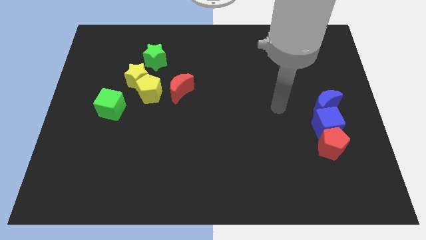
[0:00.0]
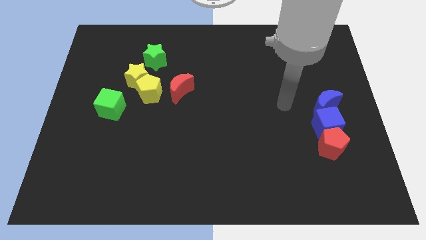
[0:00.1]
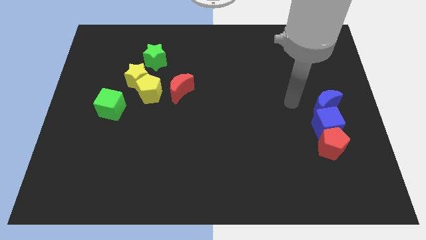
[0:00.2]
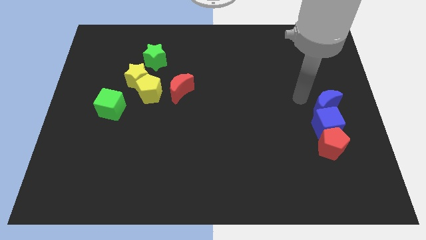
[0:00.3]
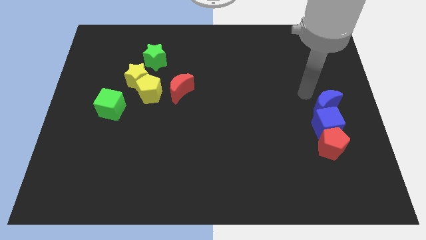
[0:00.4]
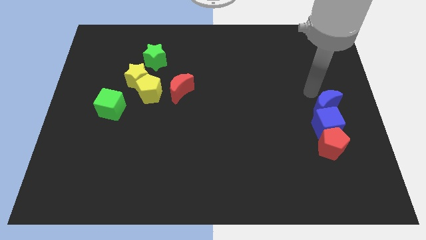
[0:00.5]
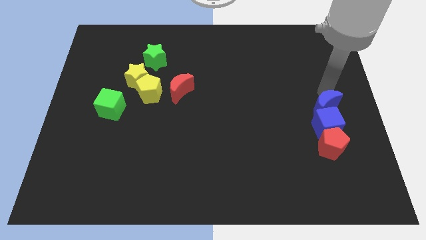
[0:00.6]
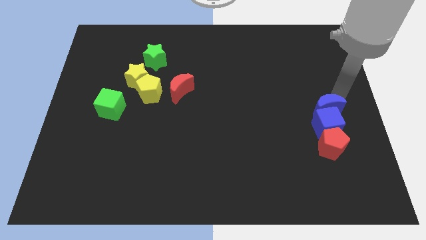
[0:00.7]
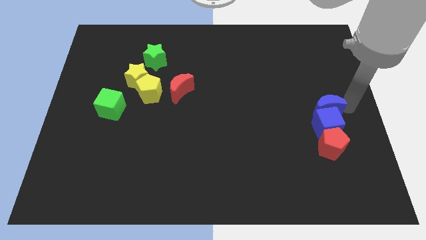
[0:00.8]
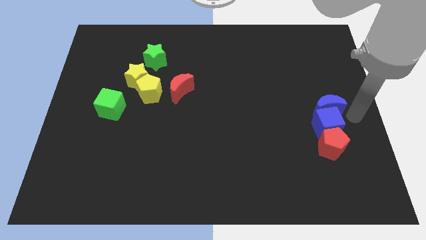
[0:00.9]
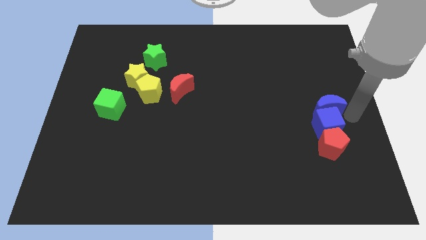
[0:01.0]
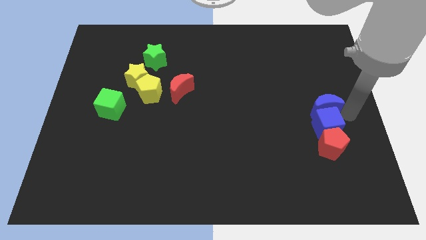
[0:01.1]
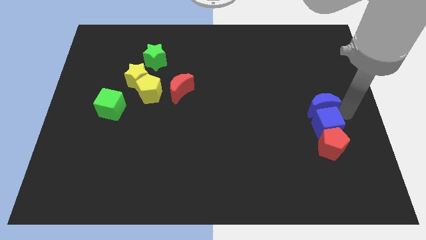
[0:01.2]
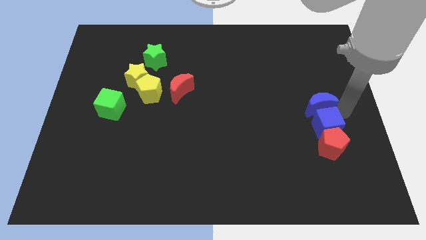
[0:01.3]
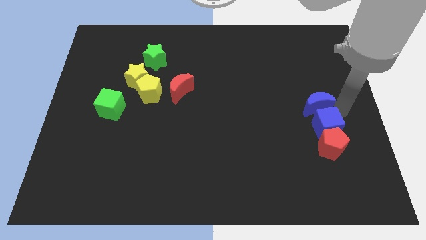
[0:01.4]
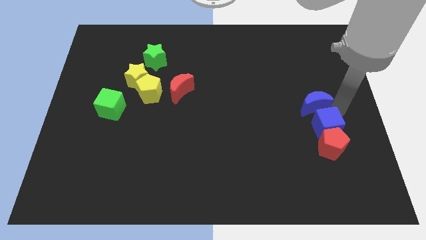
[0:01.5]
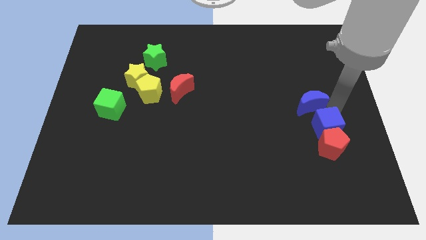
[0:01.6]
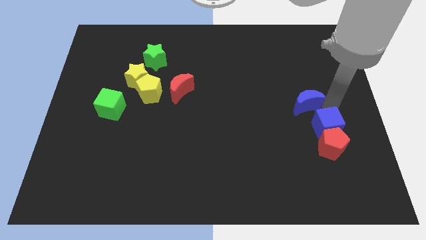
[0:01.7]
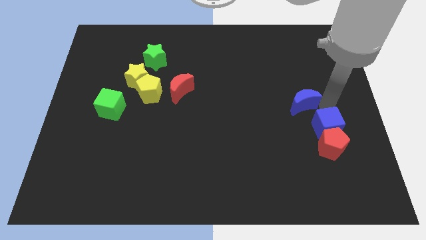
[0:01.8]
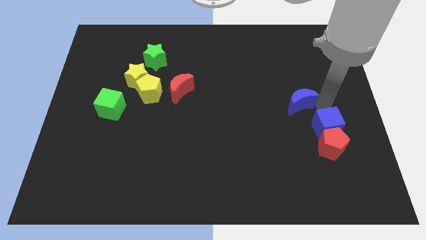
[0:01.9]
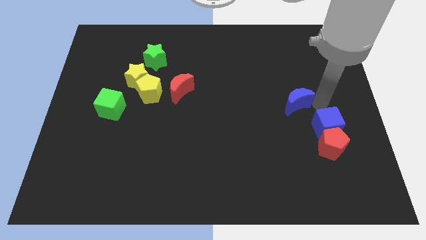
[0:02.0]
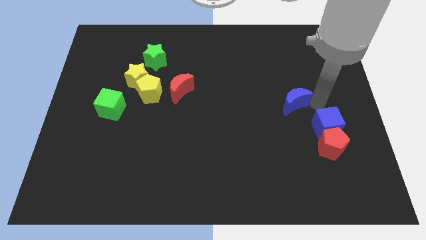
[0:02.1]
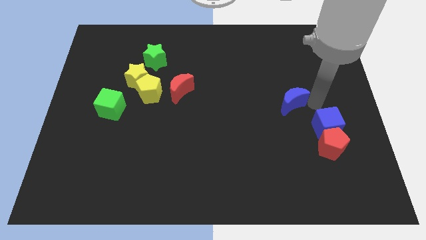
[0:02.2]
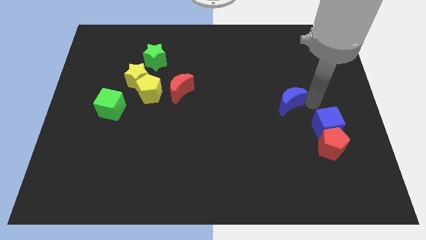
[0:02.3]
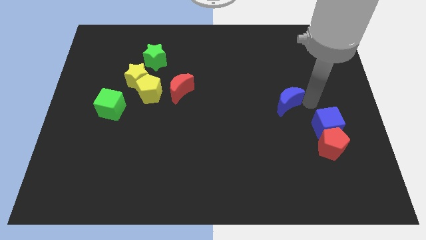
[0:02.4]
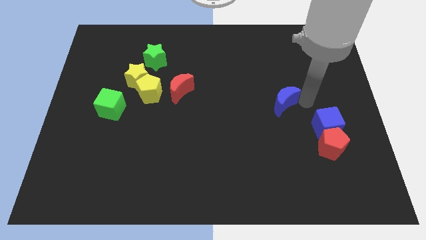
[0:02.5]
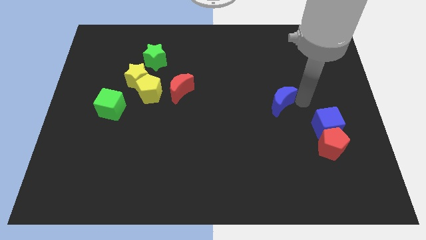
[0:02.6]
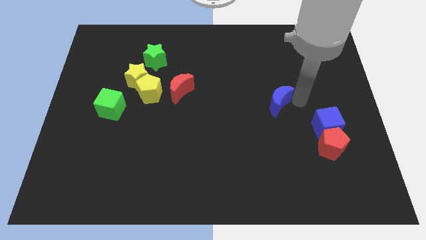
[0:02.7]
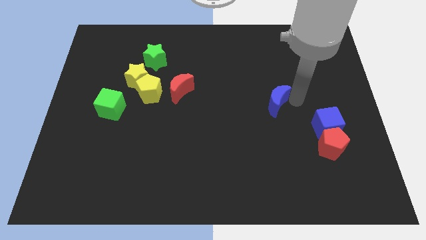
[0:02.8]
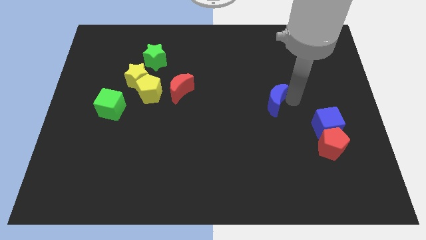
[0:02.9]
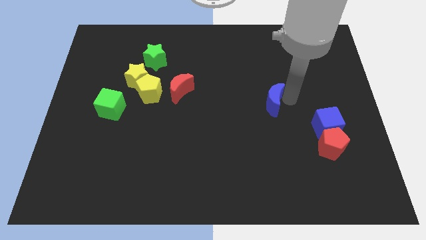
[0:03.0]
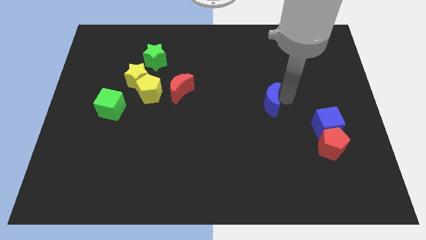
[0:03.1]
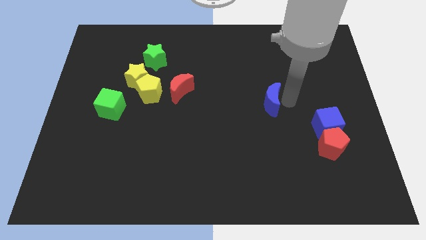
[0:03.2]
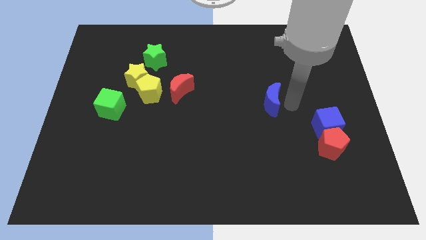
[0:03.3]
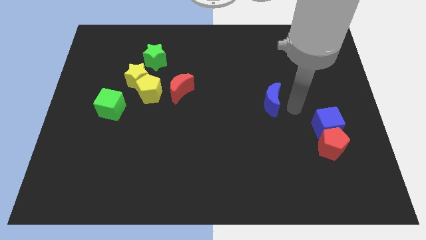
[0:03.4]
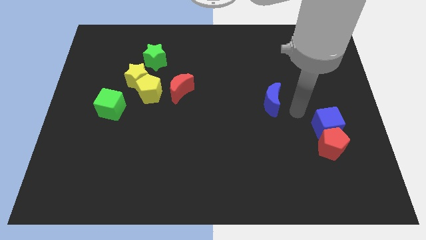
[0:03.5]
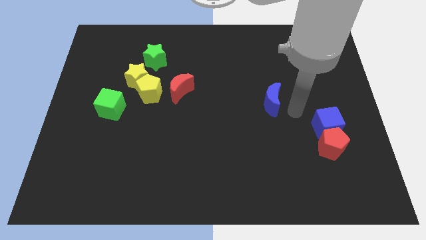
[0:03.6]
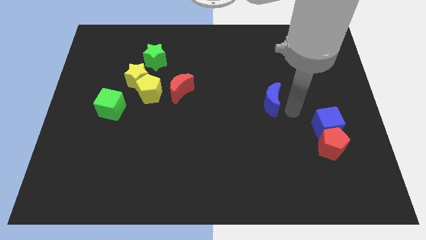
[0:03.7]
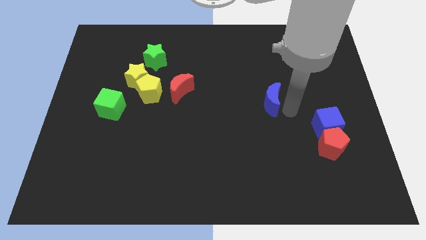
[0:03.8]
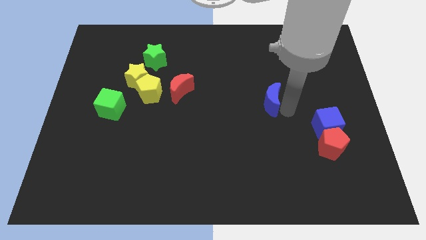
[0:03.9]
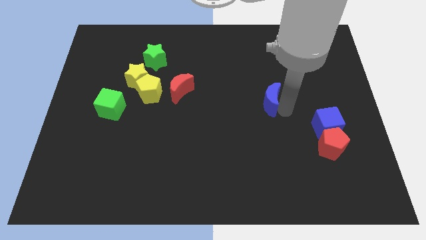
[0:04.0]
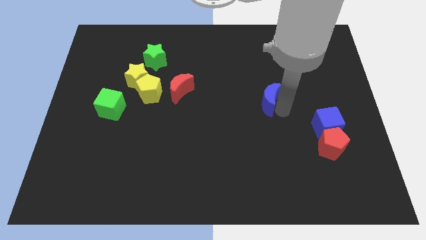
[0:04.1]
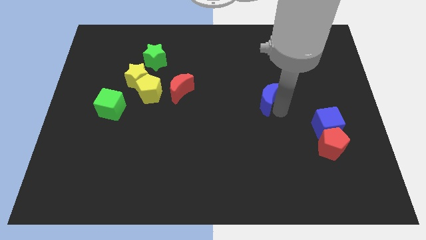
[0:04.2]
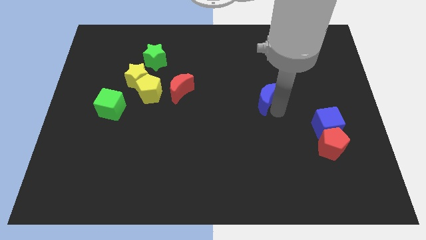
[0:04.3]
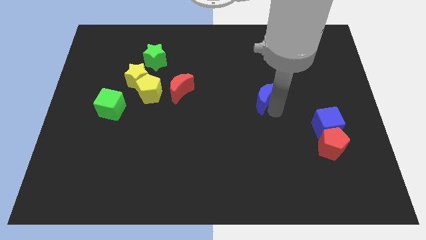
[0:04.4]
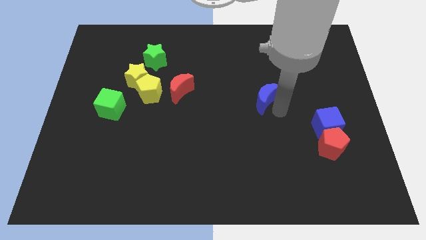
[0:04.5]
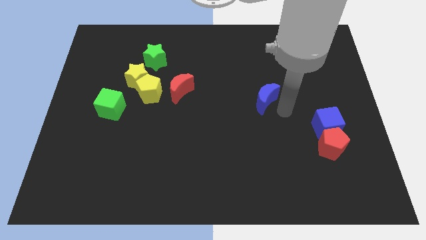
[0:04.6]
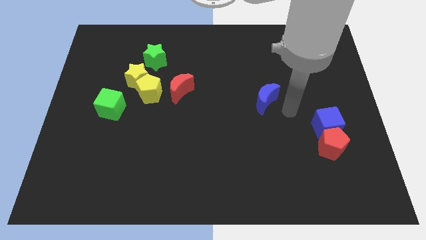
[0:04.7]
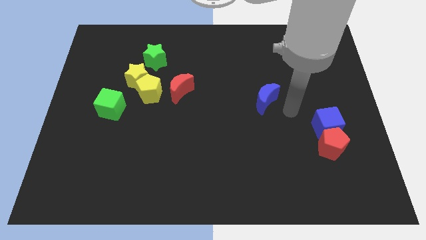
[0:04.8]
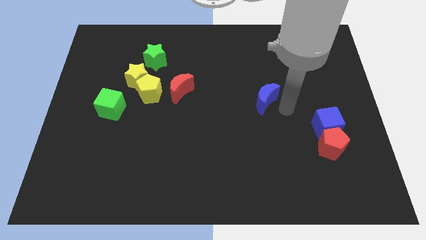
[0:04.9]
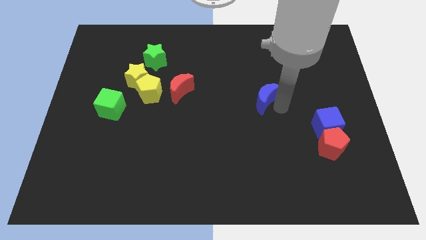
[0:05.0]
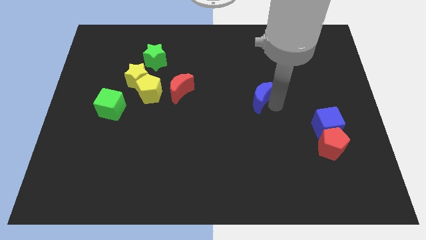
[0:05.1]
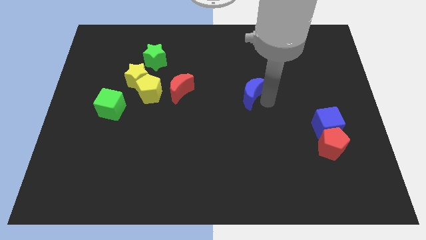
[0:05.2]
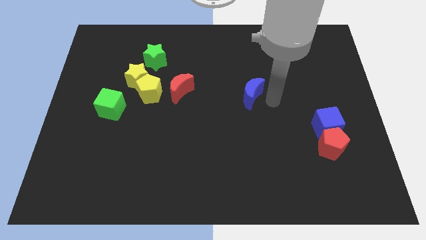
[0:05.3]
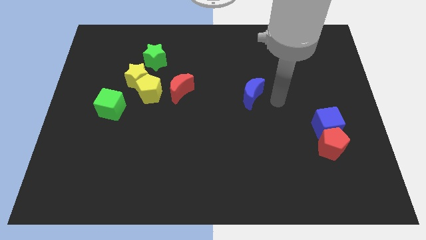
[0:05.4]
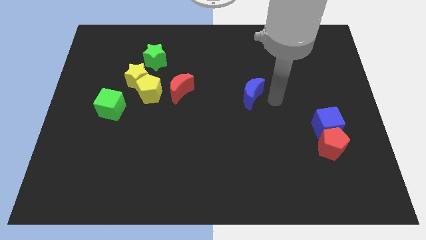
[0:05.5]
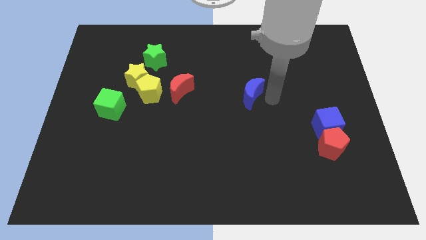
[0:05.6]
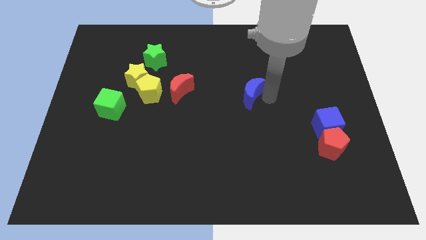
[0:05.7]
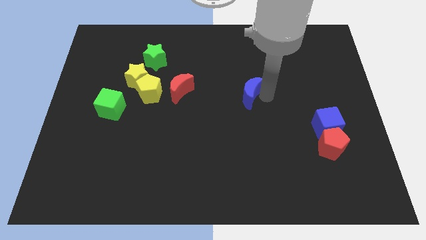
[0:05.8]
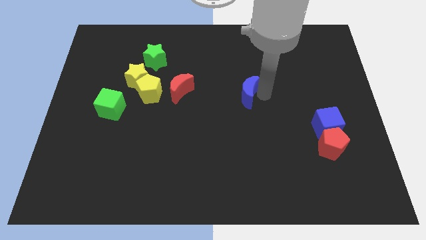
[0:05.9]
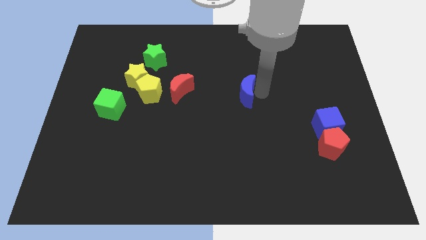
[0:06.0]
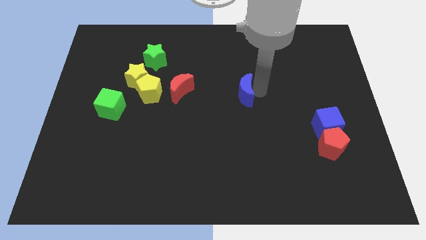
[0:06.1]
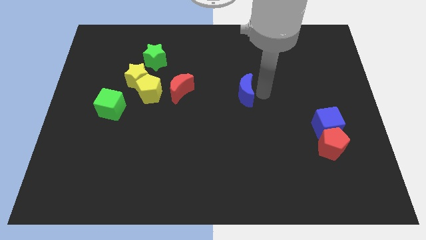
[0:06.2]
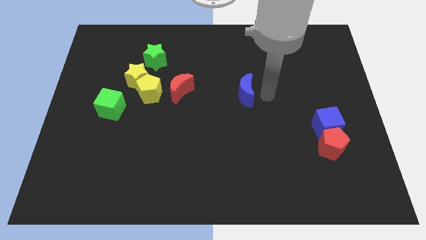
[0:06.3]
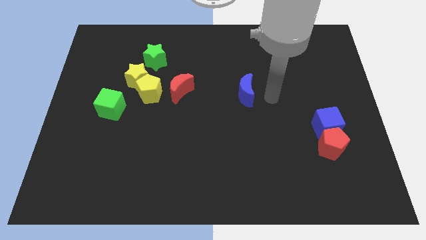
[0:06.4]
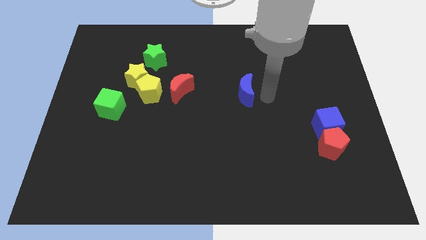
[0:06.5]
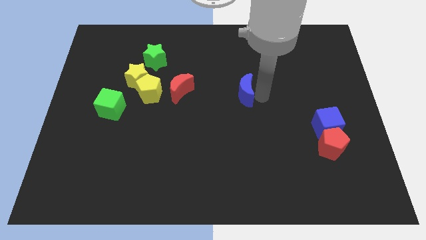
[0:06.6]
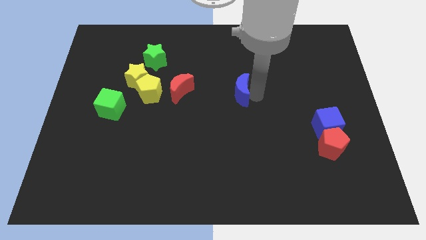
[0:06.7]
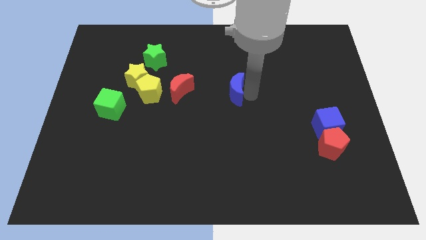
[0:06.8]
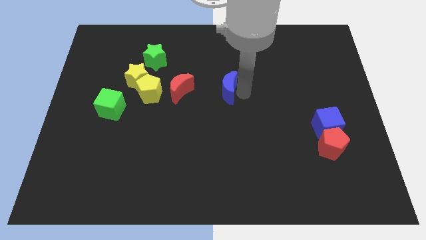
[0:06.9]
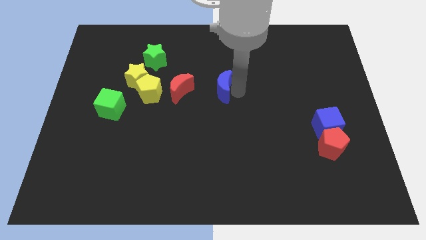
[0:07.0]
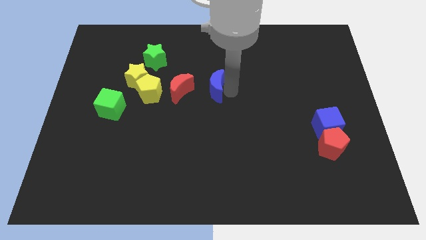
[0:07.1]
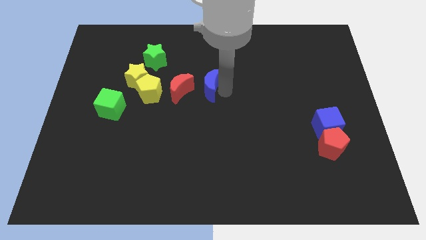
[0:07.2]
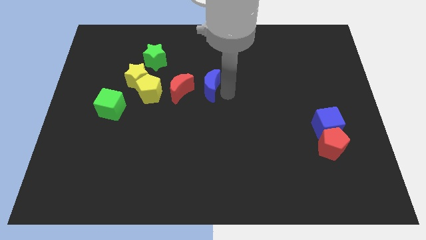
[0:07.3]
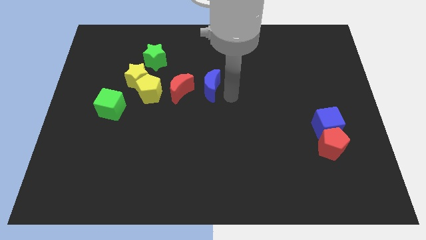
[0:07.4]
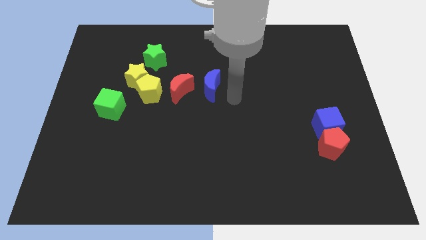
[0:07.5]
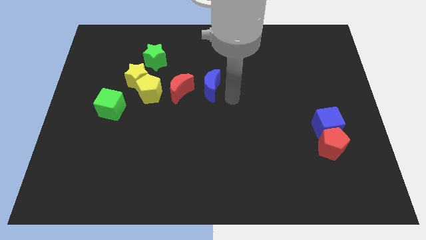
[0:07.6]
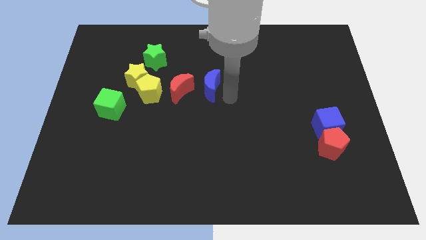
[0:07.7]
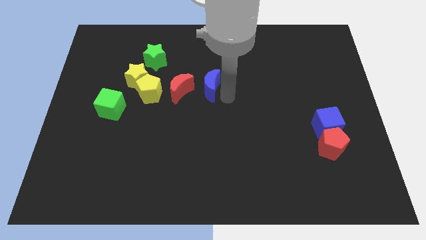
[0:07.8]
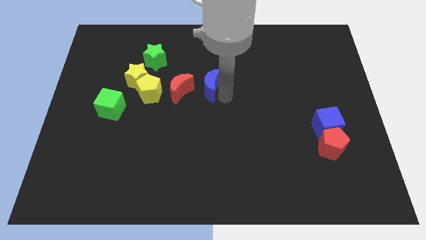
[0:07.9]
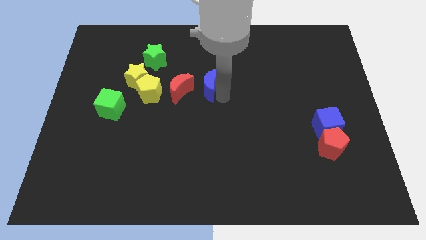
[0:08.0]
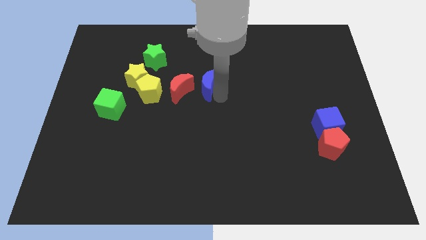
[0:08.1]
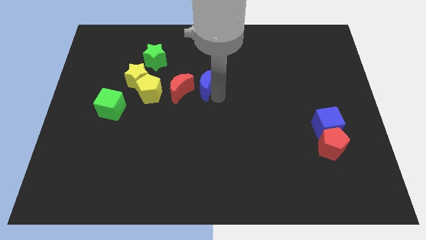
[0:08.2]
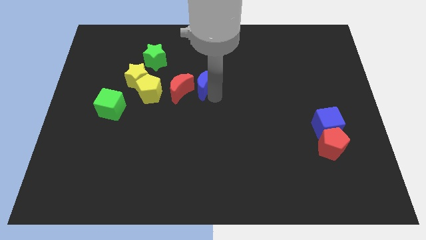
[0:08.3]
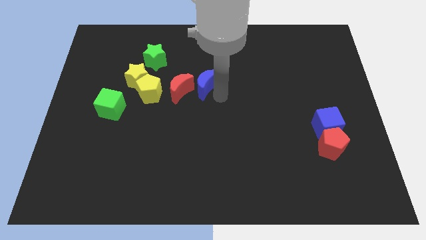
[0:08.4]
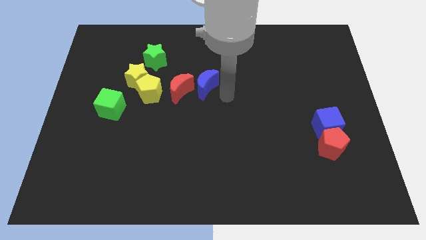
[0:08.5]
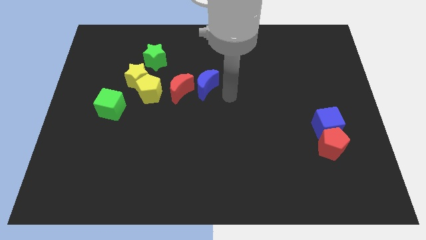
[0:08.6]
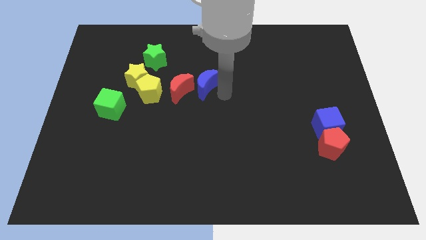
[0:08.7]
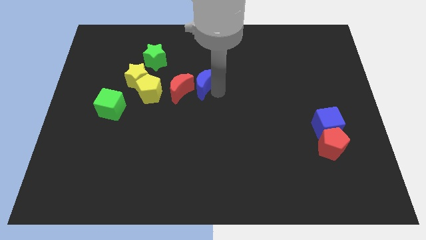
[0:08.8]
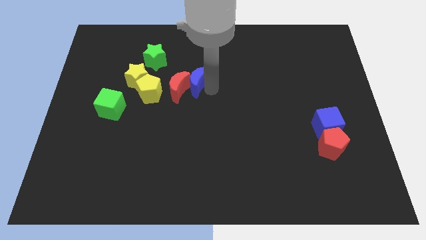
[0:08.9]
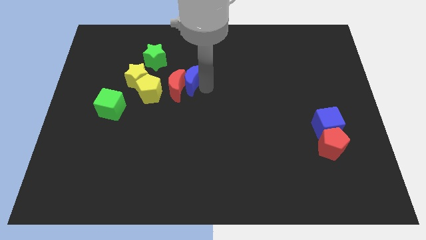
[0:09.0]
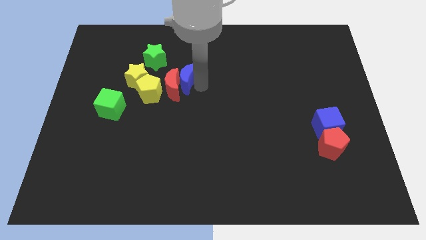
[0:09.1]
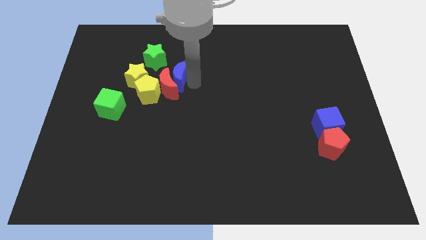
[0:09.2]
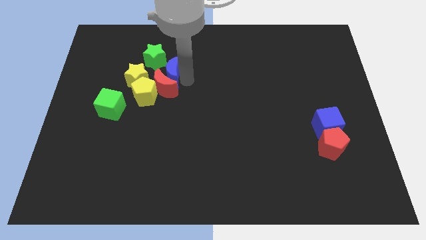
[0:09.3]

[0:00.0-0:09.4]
move the blue moon diagonally up and to the left of the red moon
